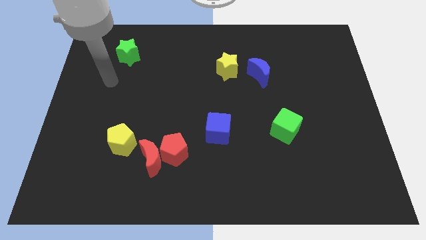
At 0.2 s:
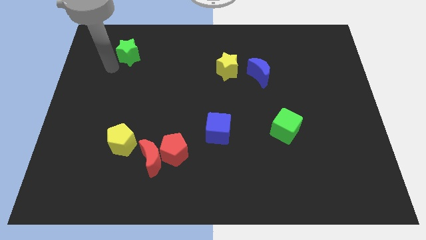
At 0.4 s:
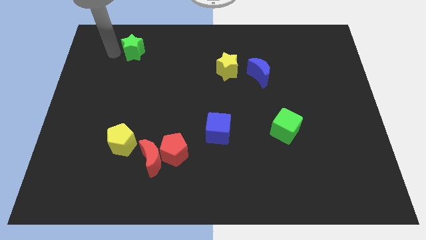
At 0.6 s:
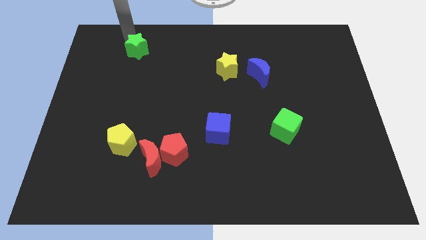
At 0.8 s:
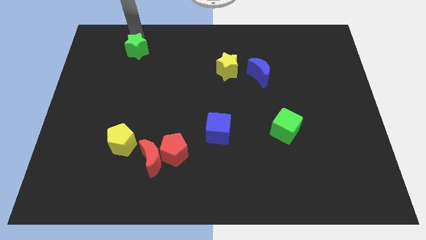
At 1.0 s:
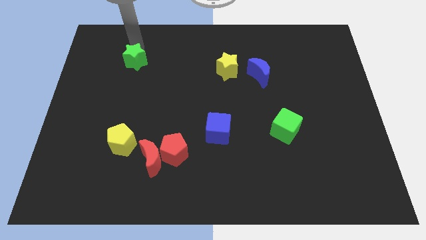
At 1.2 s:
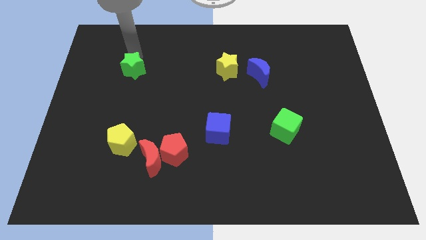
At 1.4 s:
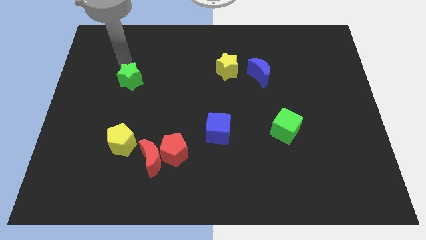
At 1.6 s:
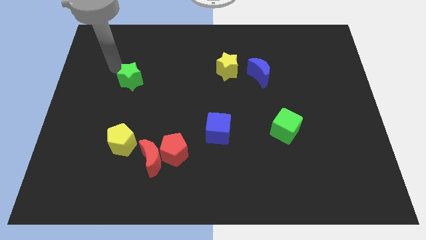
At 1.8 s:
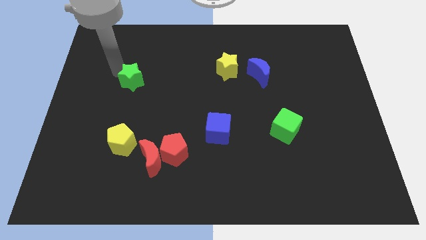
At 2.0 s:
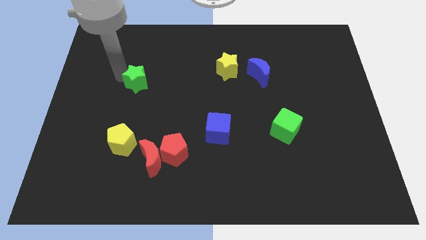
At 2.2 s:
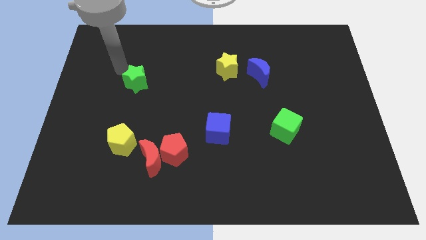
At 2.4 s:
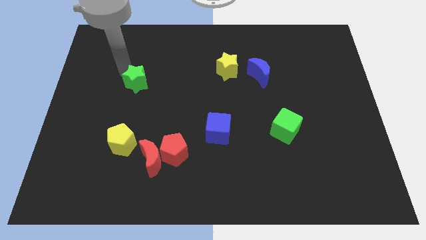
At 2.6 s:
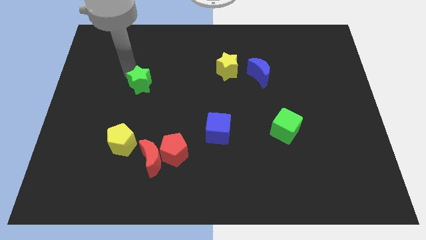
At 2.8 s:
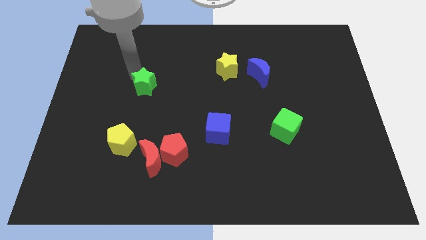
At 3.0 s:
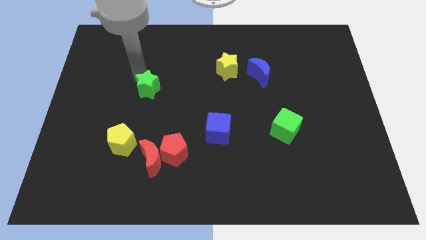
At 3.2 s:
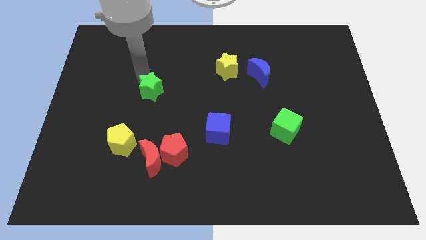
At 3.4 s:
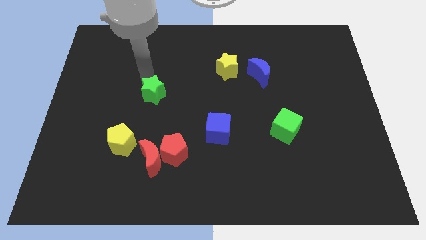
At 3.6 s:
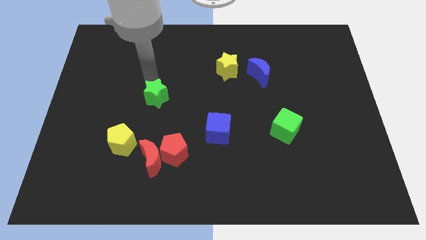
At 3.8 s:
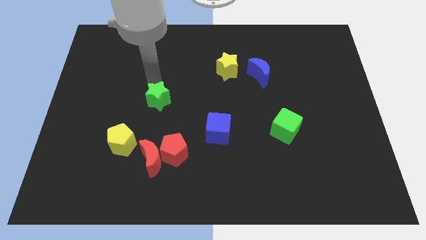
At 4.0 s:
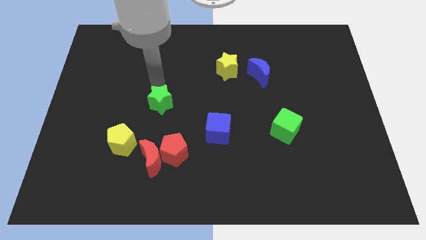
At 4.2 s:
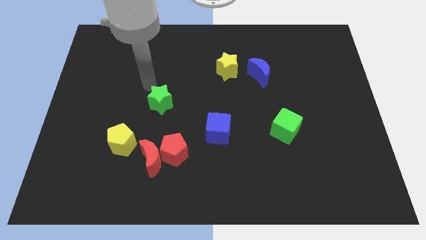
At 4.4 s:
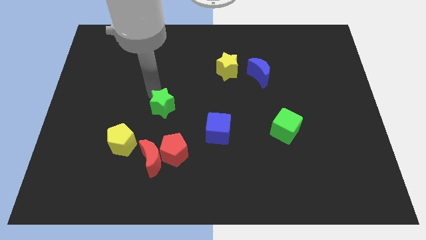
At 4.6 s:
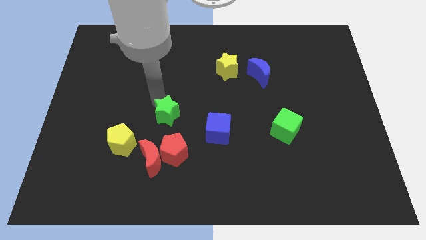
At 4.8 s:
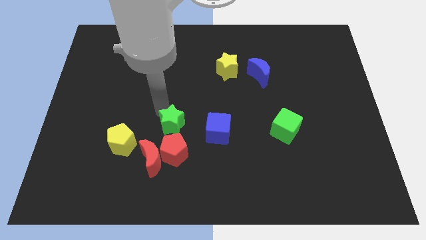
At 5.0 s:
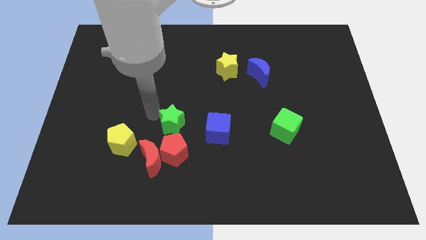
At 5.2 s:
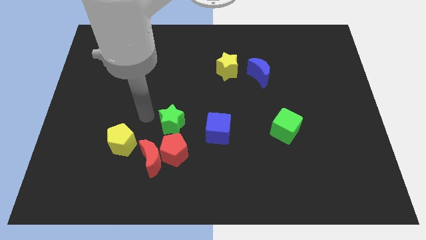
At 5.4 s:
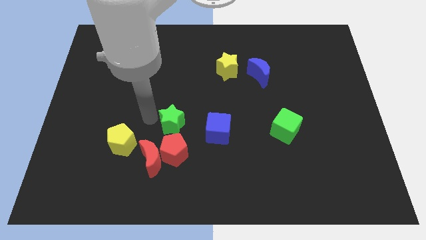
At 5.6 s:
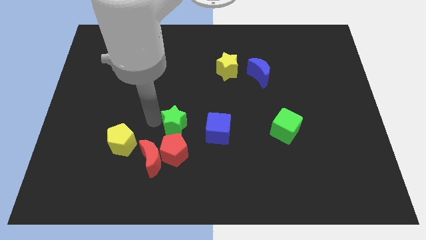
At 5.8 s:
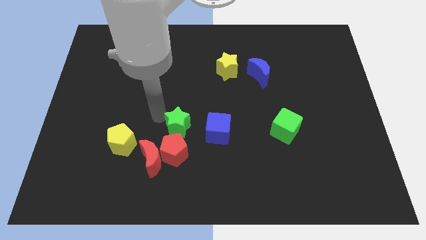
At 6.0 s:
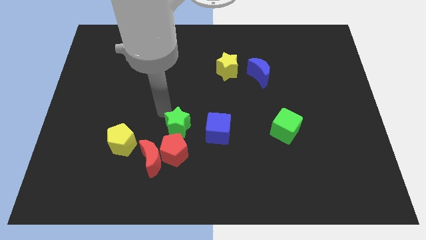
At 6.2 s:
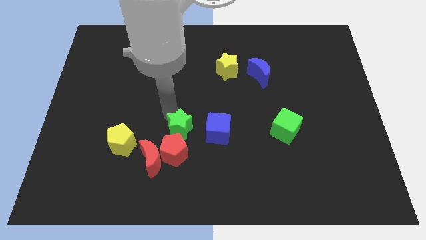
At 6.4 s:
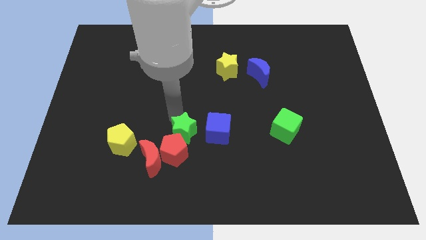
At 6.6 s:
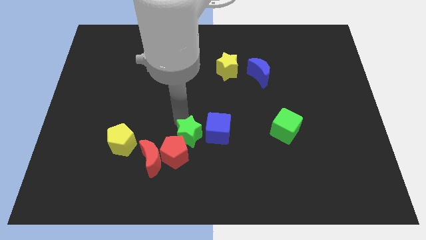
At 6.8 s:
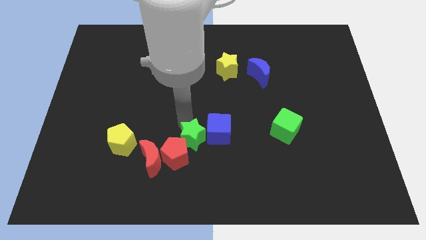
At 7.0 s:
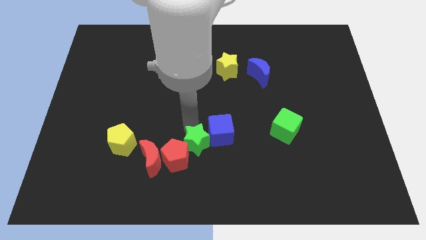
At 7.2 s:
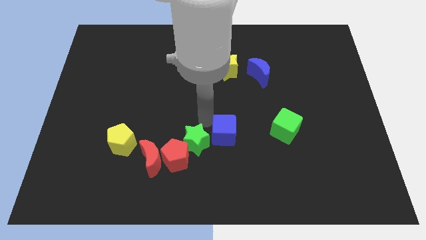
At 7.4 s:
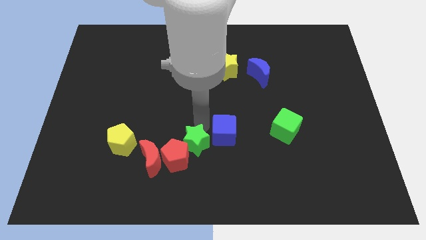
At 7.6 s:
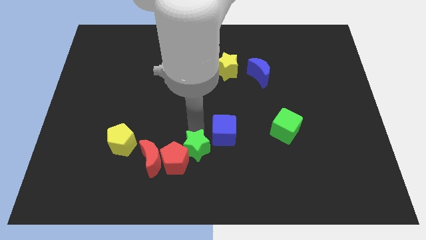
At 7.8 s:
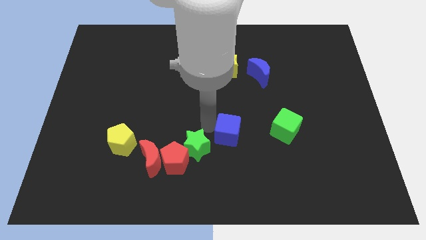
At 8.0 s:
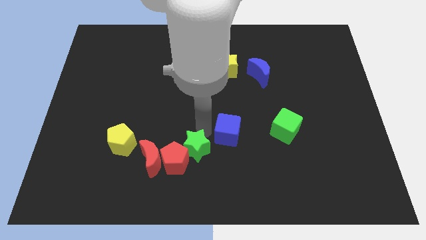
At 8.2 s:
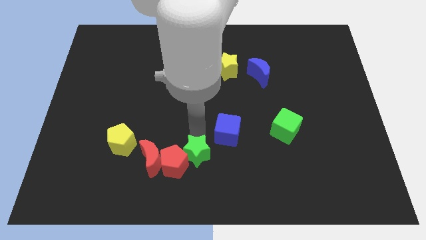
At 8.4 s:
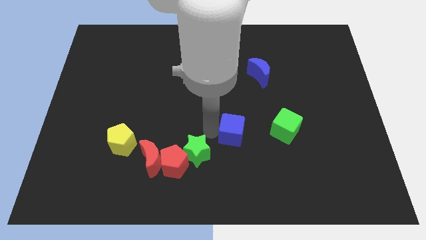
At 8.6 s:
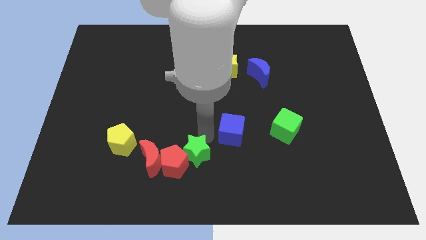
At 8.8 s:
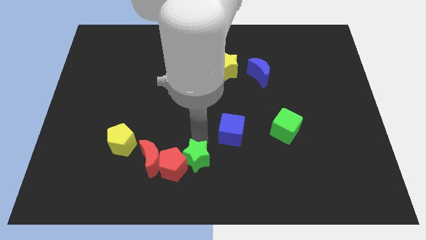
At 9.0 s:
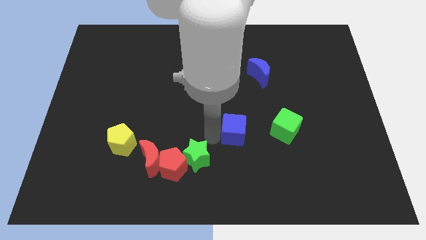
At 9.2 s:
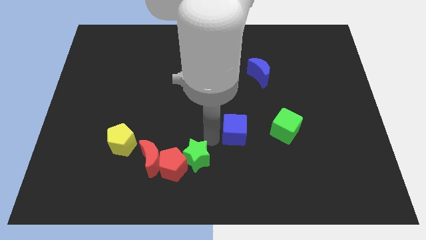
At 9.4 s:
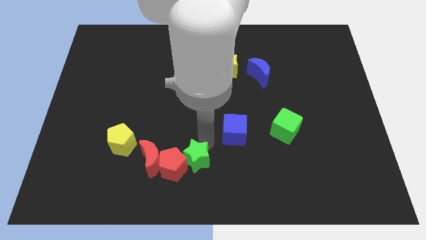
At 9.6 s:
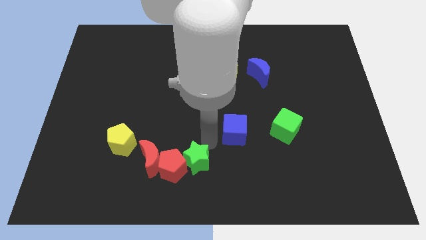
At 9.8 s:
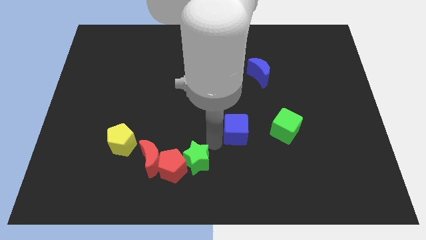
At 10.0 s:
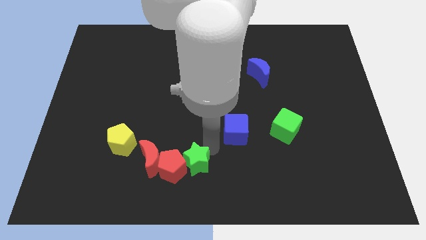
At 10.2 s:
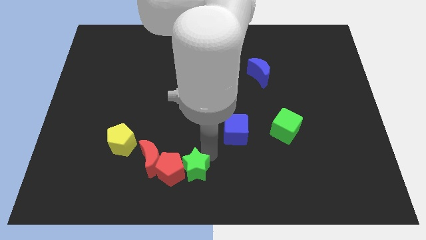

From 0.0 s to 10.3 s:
move the green star diagonally down and to the right of the red moon

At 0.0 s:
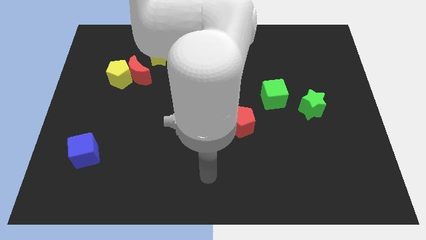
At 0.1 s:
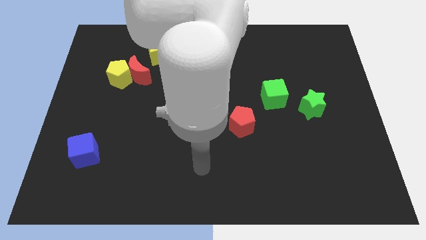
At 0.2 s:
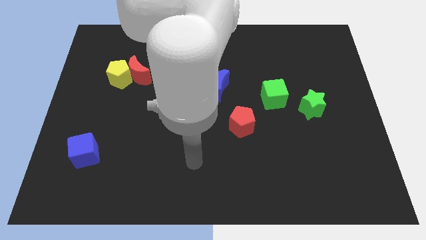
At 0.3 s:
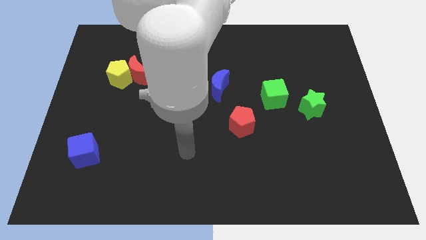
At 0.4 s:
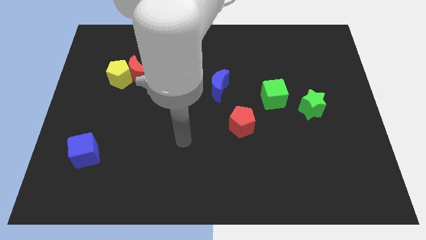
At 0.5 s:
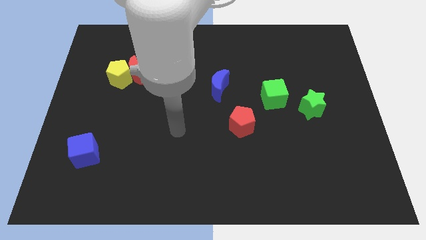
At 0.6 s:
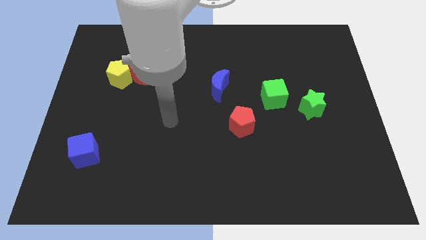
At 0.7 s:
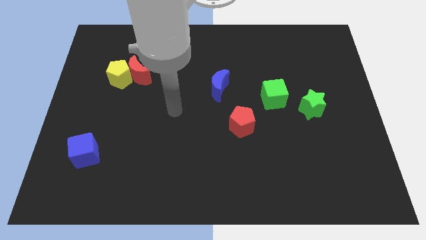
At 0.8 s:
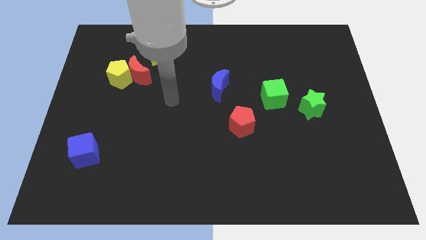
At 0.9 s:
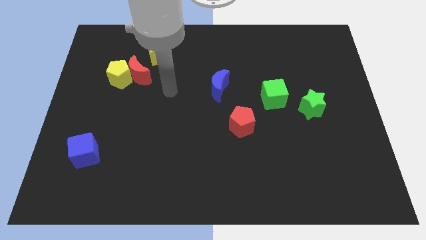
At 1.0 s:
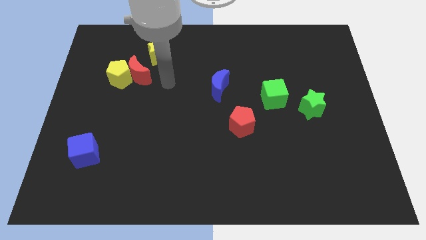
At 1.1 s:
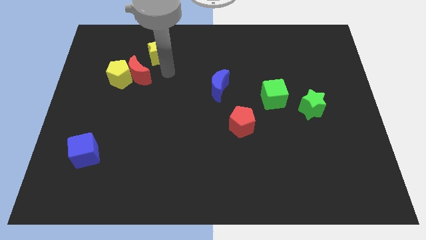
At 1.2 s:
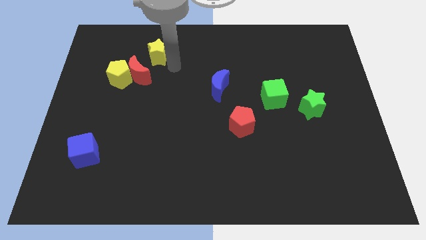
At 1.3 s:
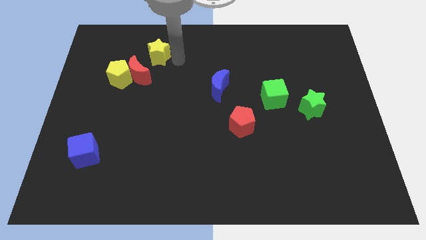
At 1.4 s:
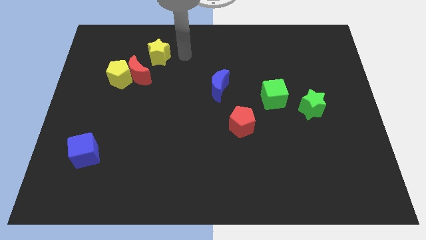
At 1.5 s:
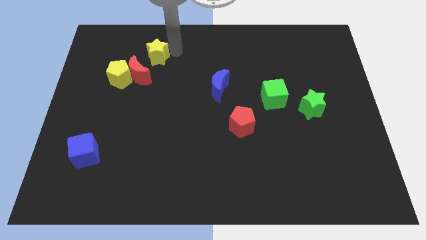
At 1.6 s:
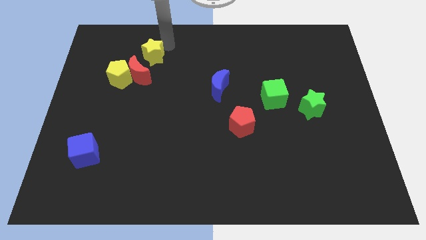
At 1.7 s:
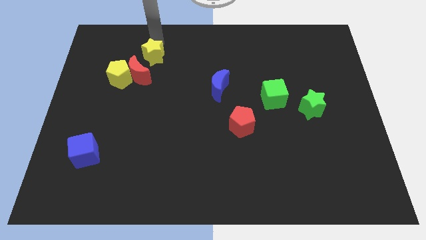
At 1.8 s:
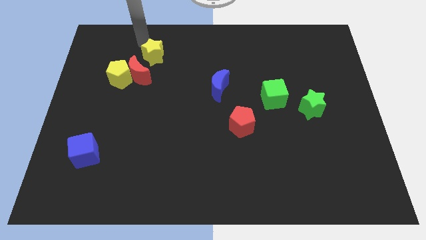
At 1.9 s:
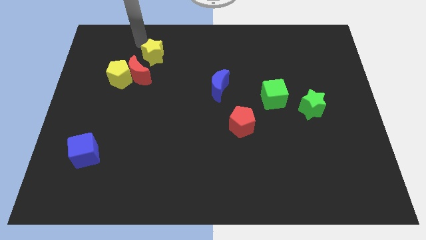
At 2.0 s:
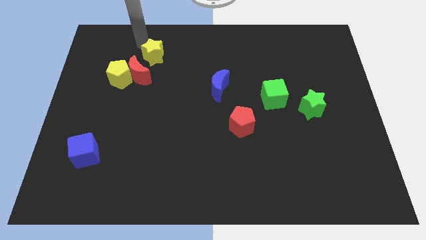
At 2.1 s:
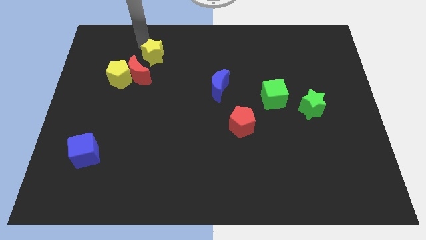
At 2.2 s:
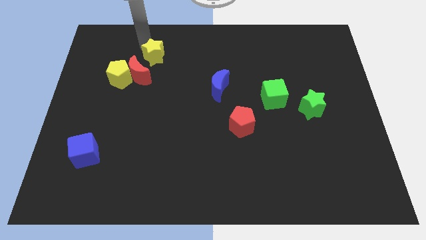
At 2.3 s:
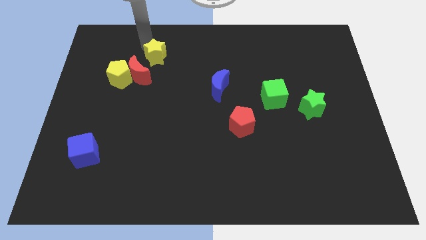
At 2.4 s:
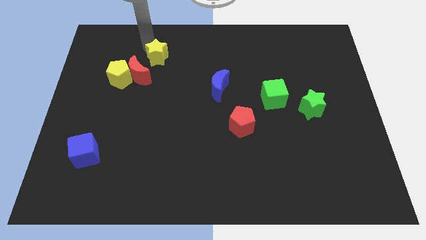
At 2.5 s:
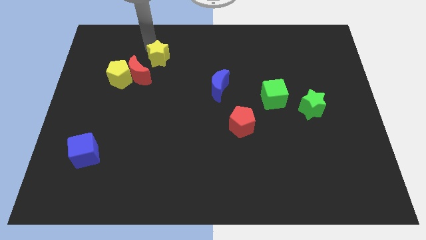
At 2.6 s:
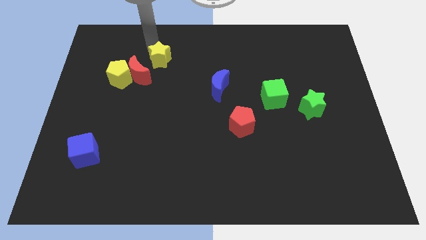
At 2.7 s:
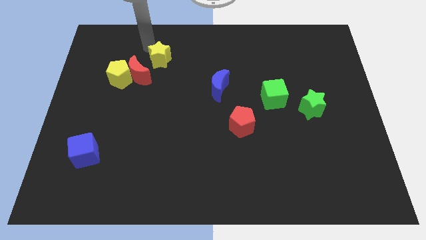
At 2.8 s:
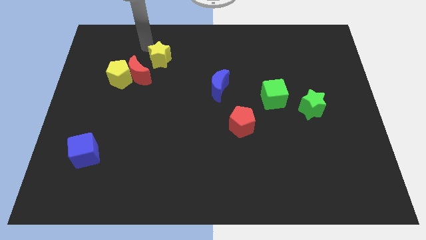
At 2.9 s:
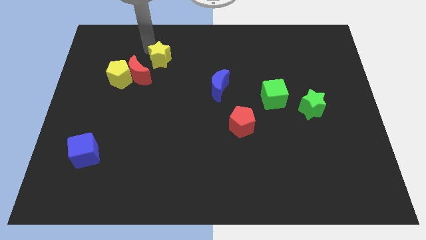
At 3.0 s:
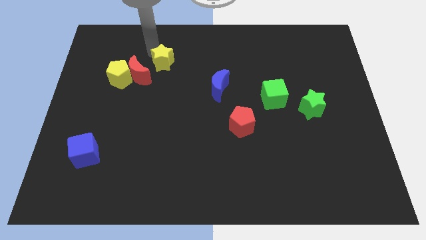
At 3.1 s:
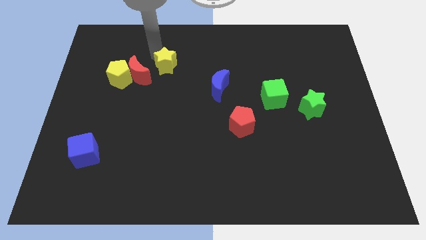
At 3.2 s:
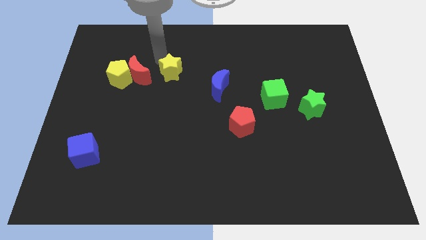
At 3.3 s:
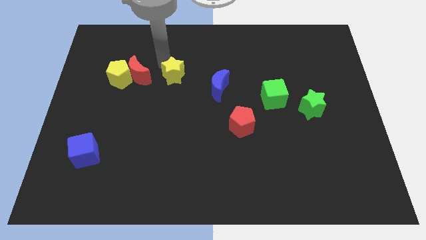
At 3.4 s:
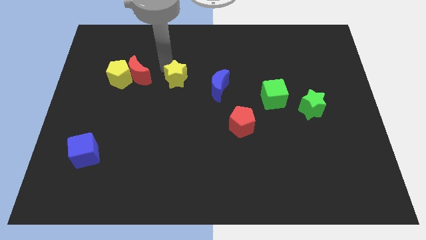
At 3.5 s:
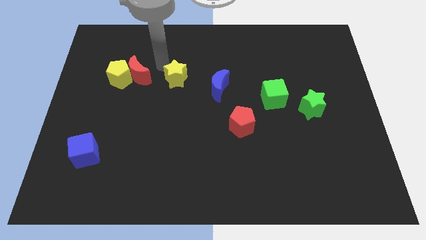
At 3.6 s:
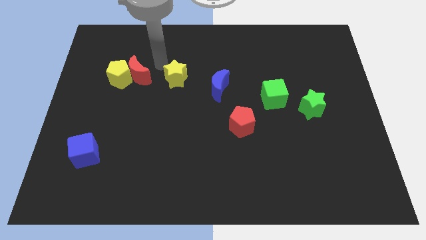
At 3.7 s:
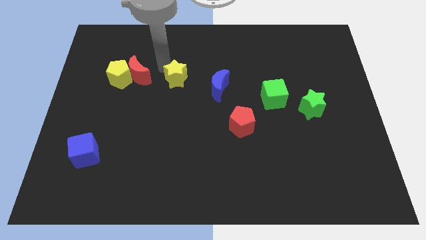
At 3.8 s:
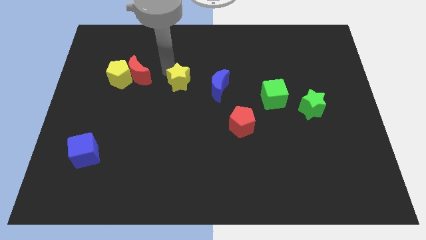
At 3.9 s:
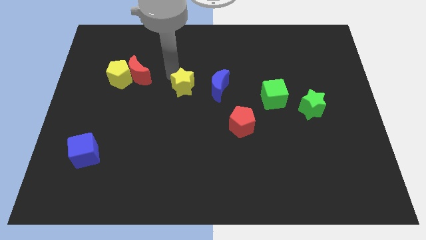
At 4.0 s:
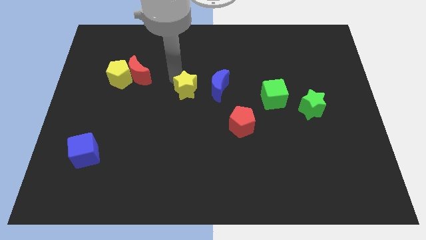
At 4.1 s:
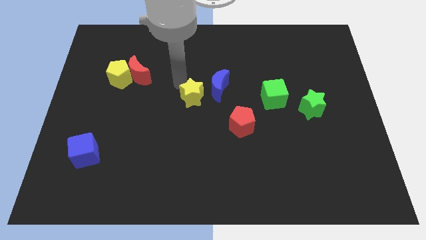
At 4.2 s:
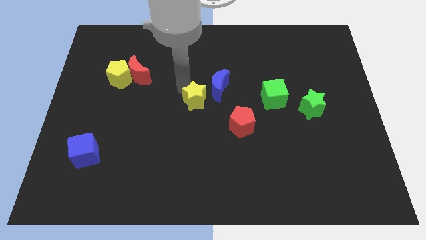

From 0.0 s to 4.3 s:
push the yellow star to the top left side of the red pentagon
